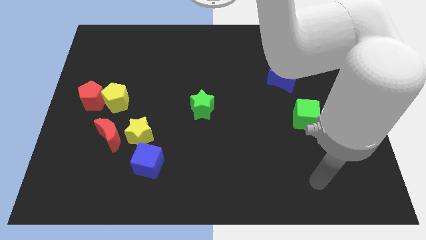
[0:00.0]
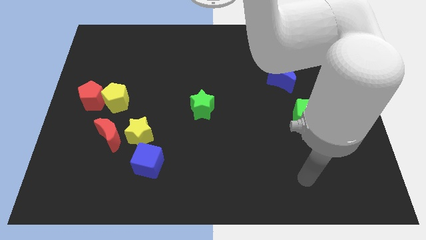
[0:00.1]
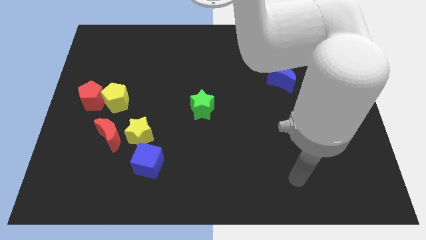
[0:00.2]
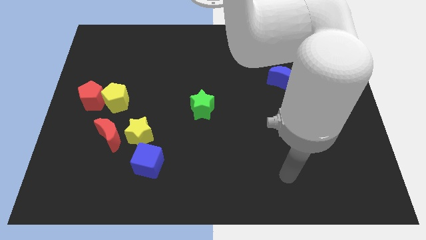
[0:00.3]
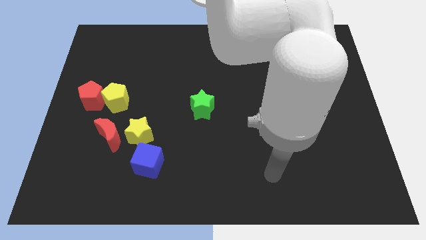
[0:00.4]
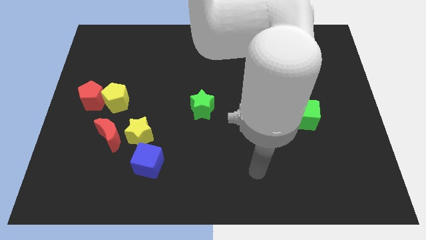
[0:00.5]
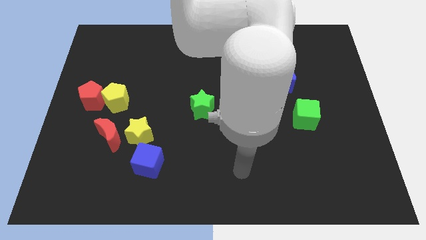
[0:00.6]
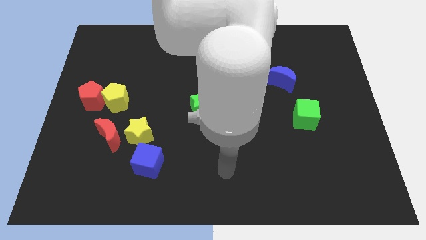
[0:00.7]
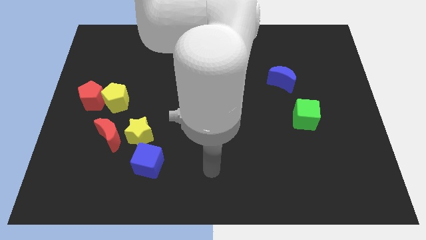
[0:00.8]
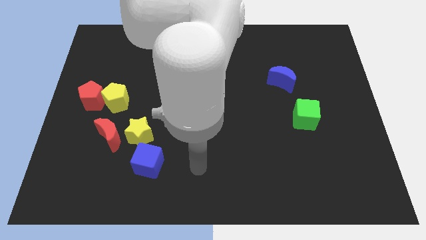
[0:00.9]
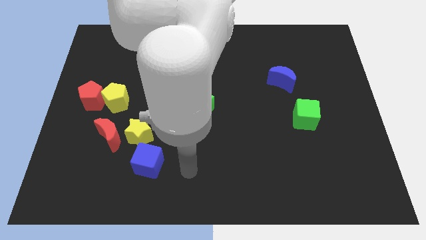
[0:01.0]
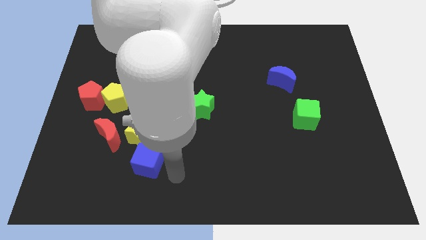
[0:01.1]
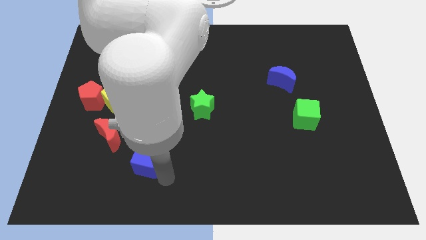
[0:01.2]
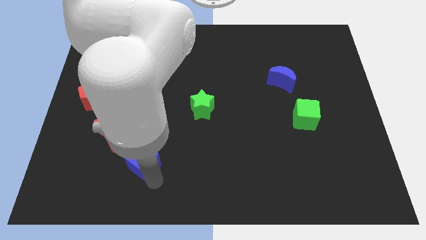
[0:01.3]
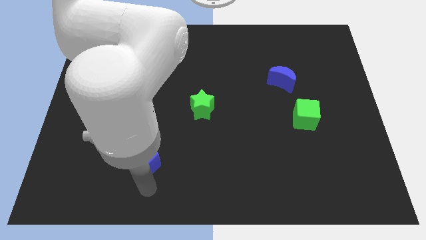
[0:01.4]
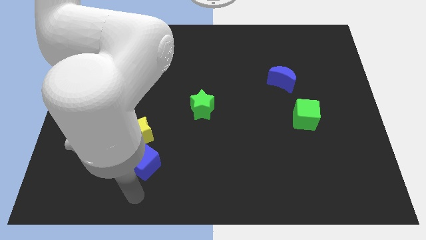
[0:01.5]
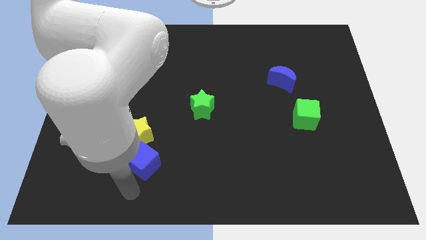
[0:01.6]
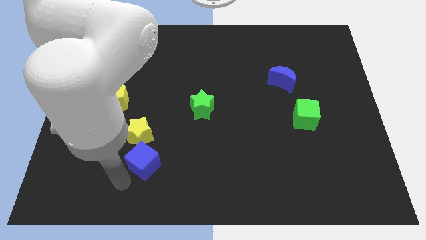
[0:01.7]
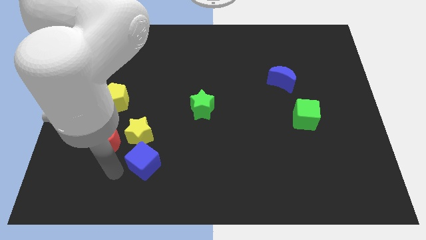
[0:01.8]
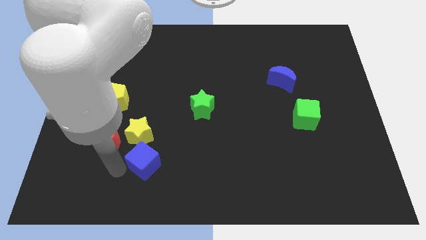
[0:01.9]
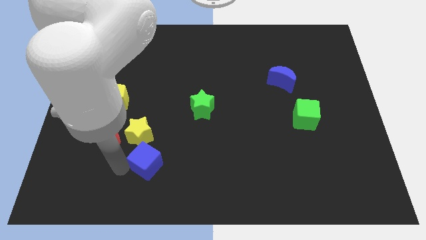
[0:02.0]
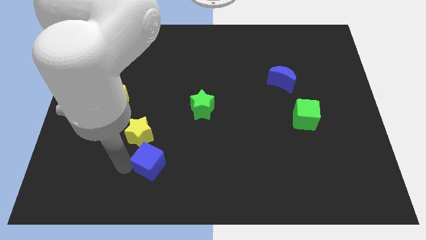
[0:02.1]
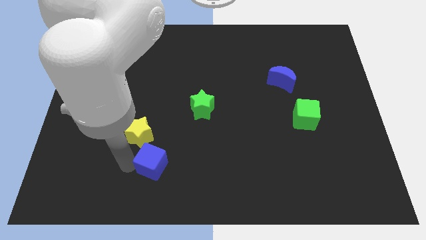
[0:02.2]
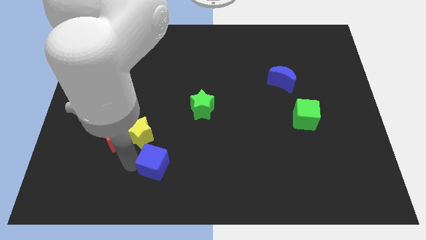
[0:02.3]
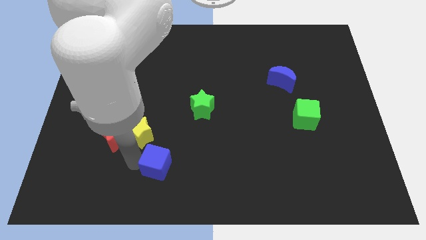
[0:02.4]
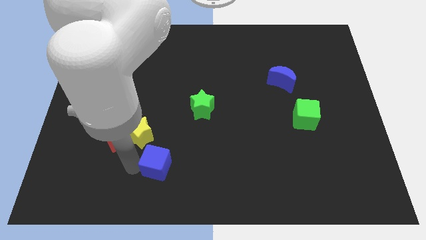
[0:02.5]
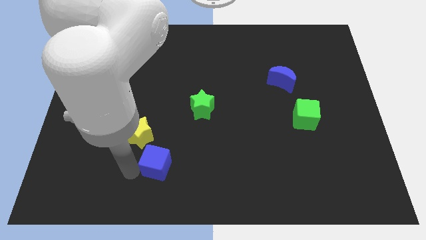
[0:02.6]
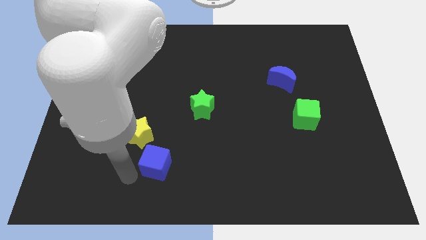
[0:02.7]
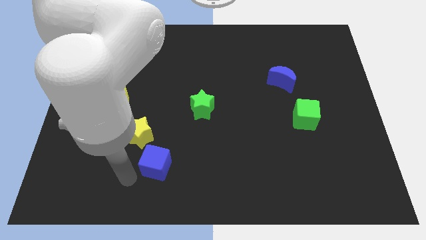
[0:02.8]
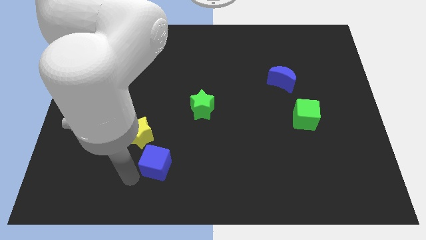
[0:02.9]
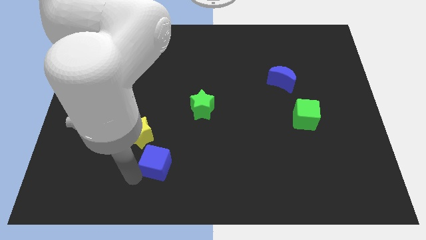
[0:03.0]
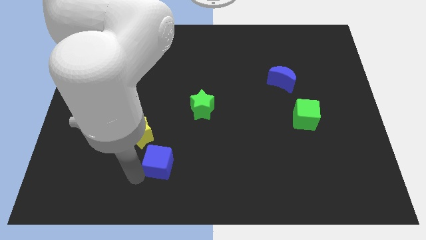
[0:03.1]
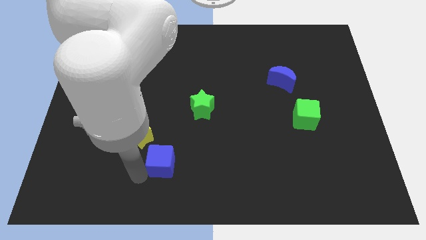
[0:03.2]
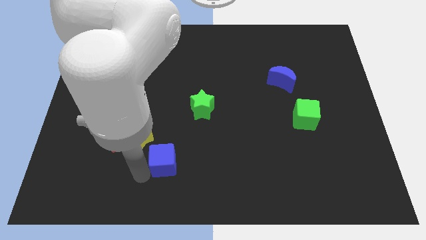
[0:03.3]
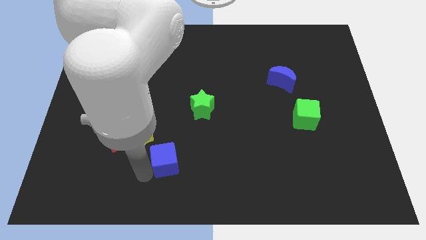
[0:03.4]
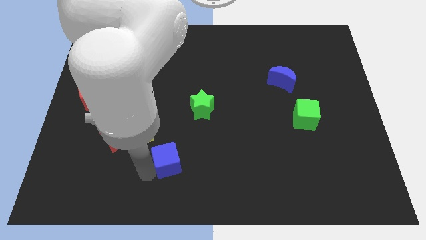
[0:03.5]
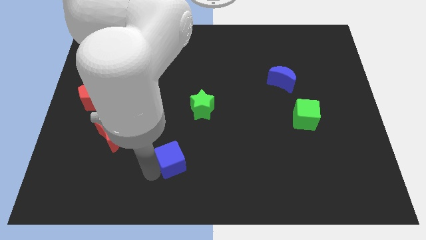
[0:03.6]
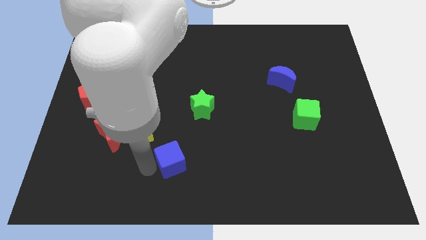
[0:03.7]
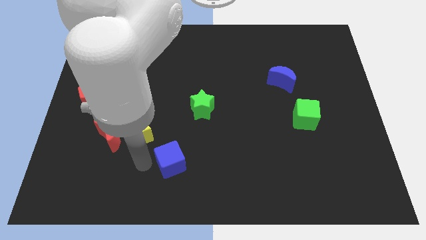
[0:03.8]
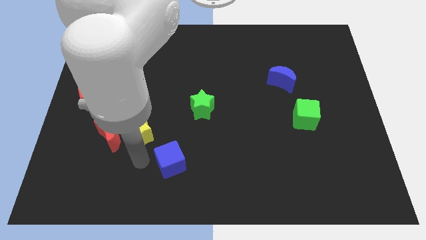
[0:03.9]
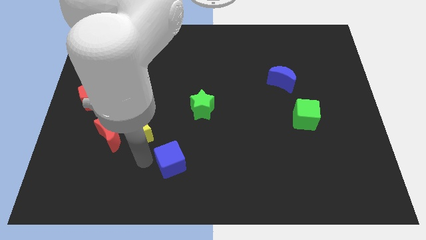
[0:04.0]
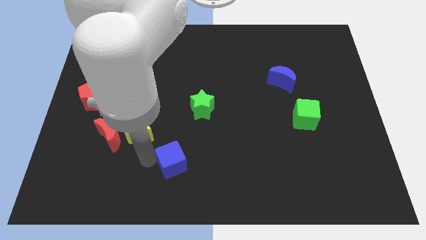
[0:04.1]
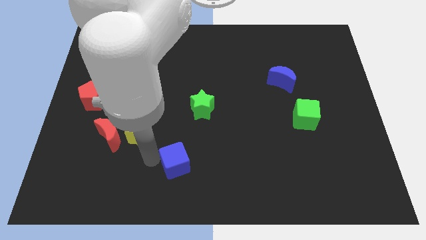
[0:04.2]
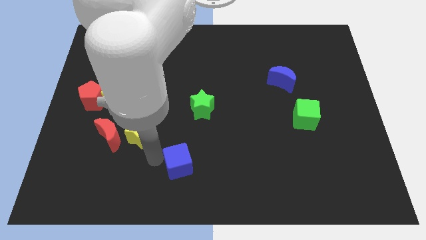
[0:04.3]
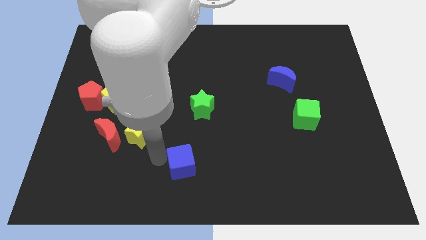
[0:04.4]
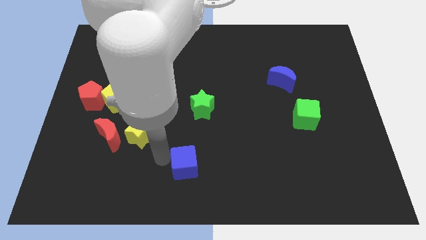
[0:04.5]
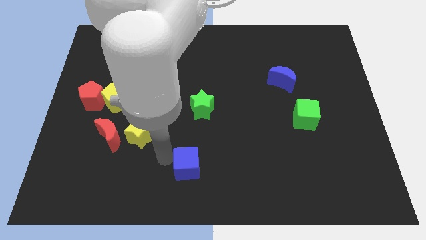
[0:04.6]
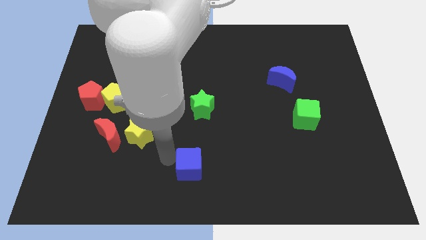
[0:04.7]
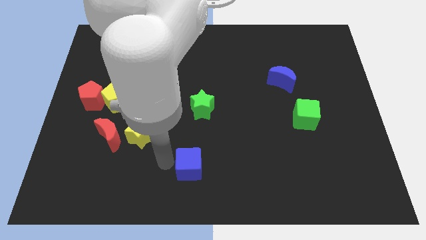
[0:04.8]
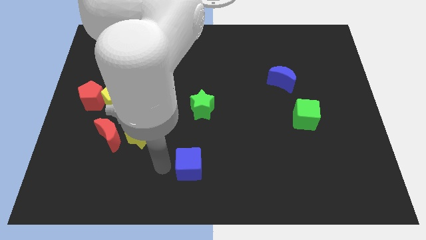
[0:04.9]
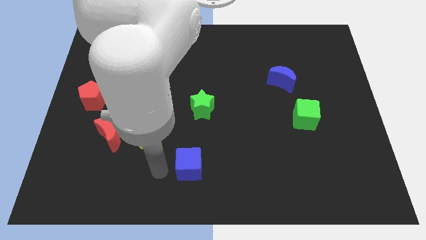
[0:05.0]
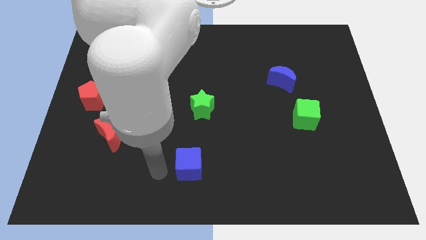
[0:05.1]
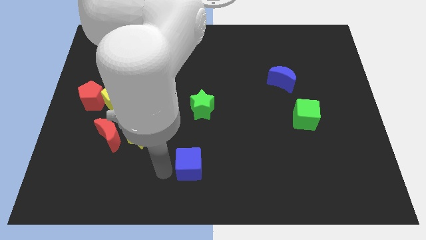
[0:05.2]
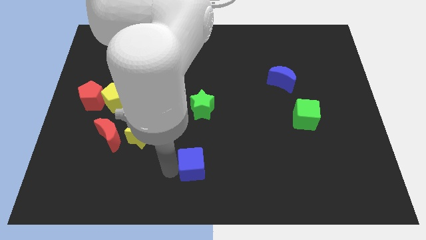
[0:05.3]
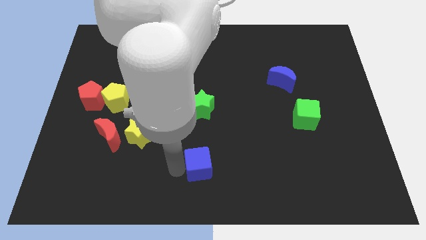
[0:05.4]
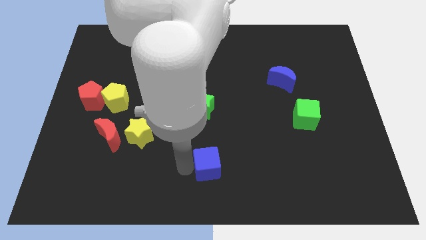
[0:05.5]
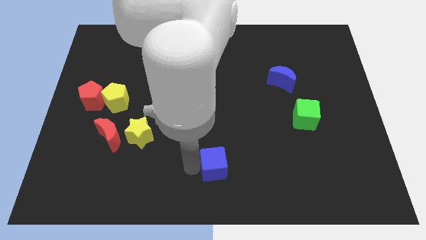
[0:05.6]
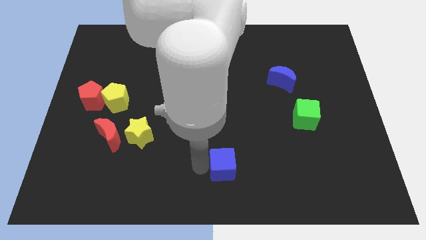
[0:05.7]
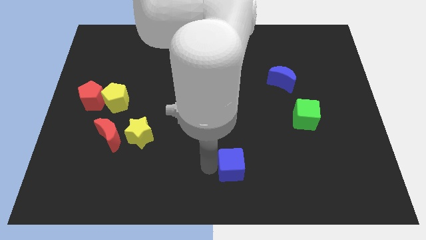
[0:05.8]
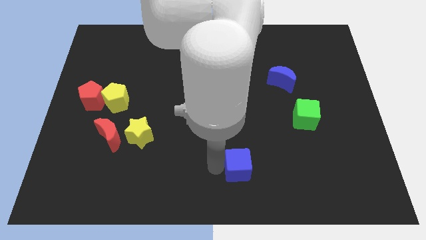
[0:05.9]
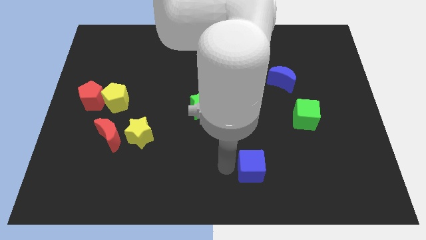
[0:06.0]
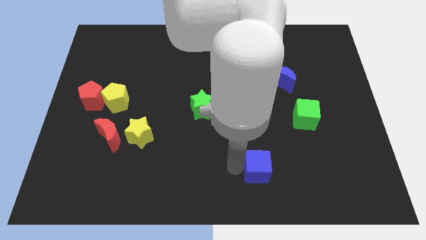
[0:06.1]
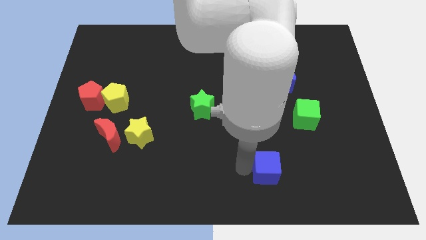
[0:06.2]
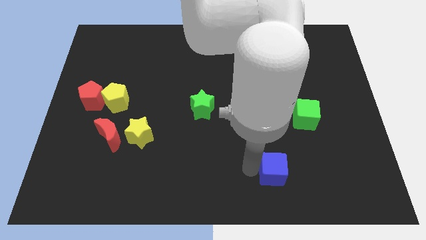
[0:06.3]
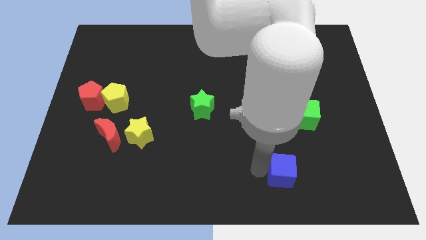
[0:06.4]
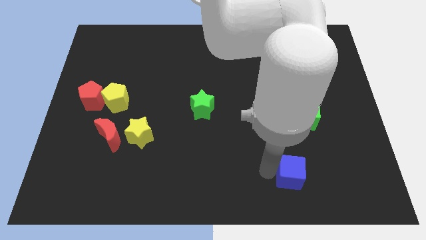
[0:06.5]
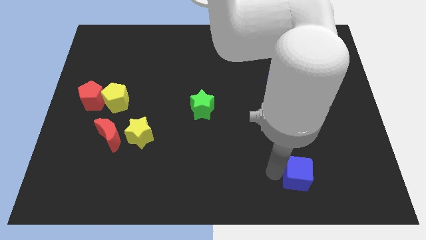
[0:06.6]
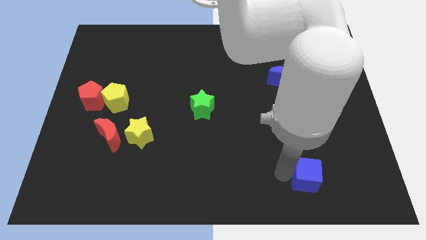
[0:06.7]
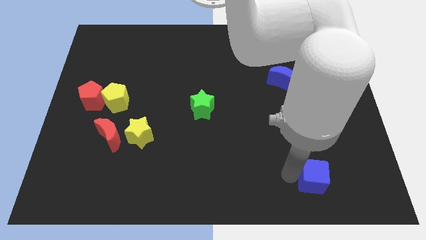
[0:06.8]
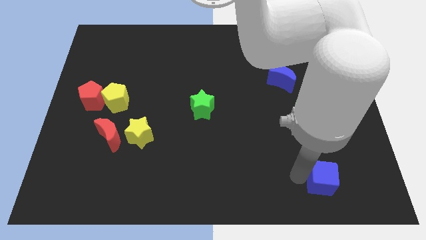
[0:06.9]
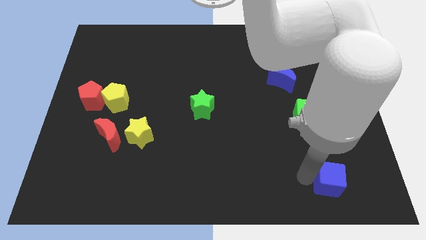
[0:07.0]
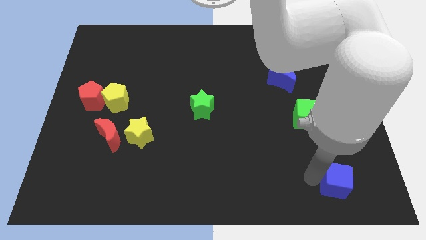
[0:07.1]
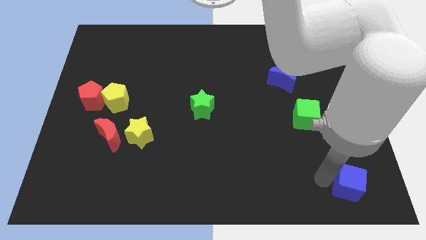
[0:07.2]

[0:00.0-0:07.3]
put the blue cube to the bottom right of the board
